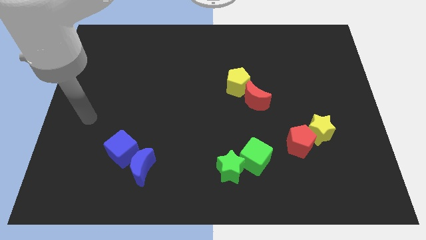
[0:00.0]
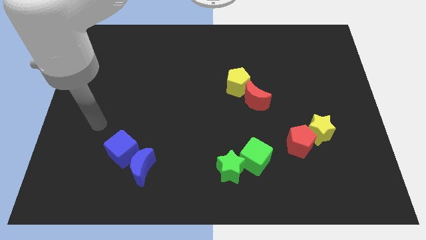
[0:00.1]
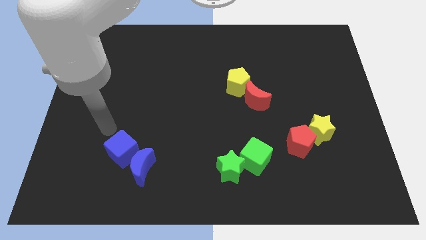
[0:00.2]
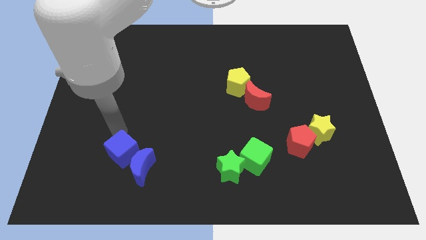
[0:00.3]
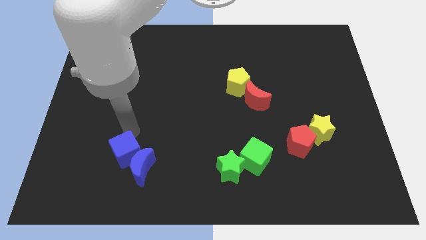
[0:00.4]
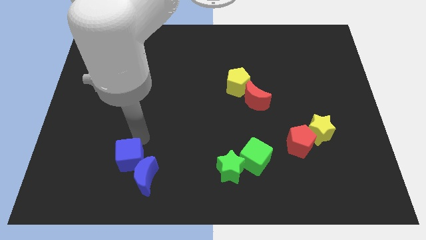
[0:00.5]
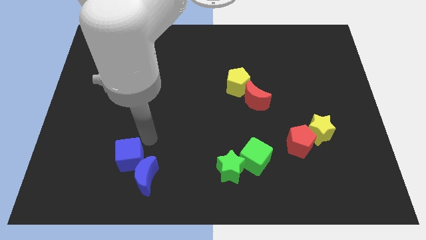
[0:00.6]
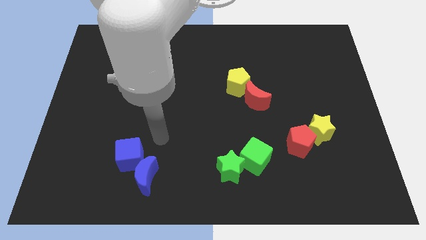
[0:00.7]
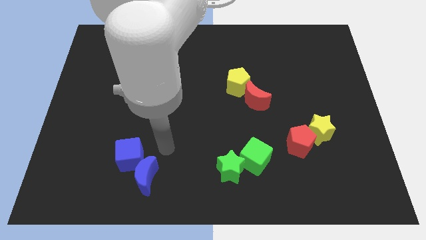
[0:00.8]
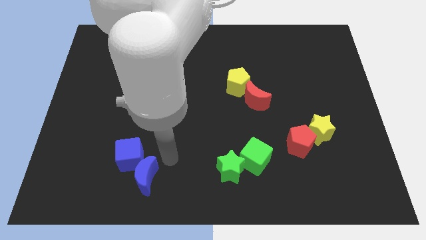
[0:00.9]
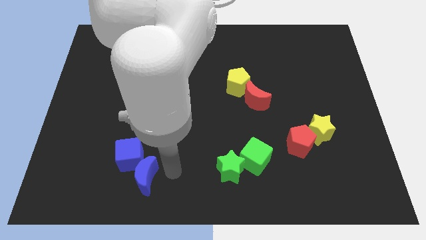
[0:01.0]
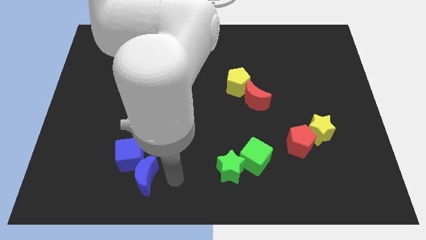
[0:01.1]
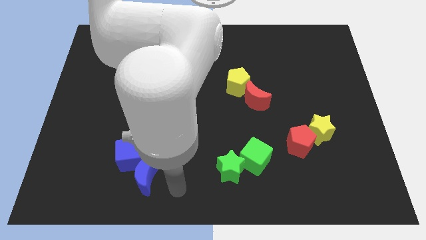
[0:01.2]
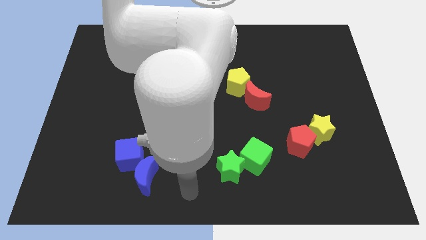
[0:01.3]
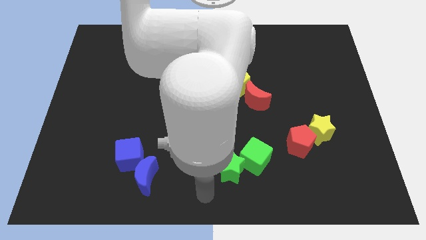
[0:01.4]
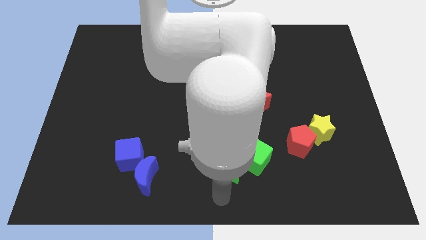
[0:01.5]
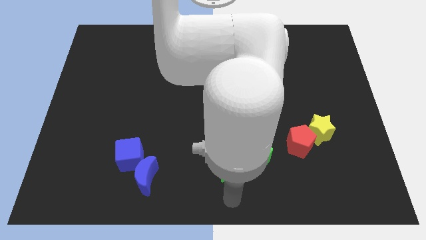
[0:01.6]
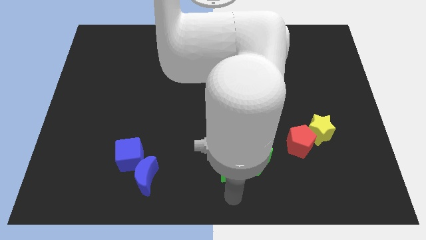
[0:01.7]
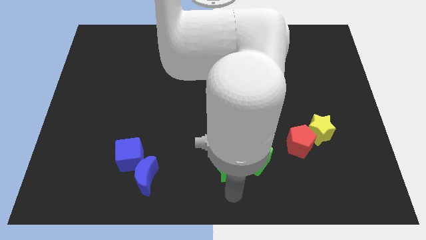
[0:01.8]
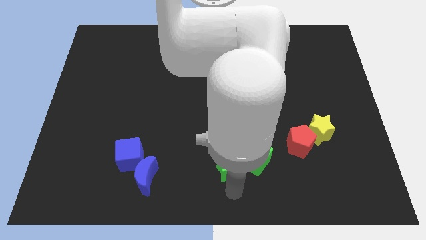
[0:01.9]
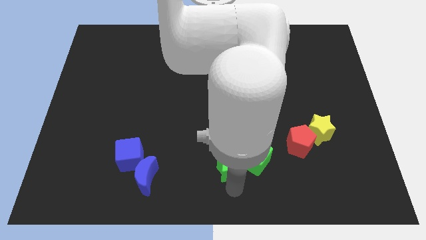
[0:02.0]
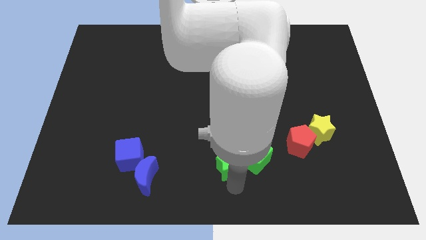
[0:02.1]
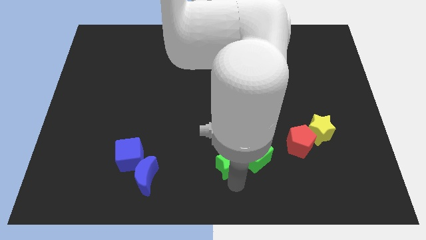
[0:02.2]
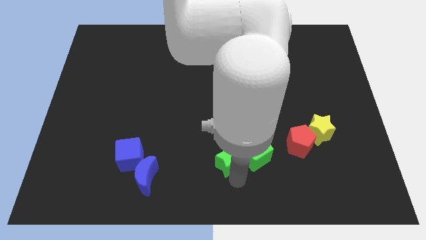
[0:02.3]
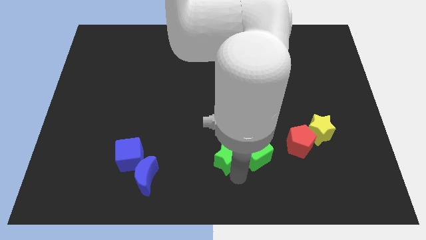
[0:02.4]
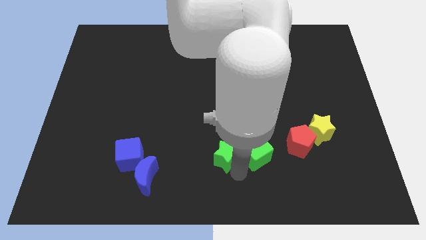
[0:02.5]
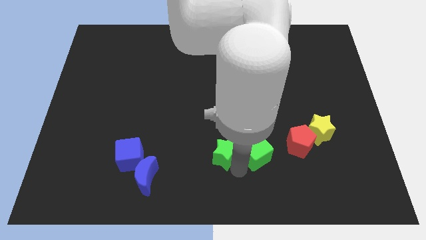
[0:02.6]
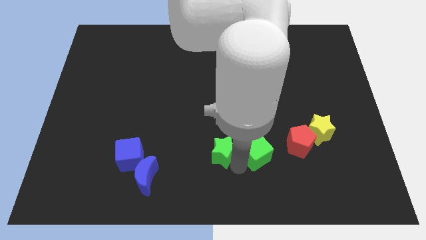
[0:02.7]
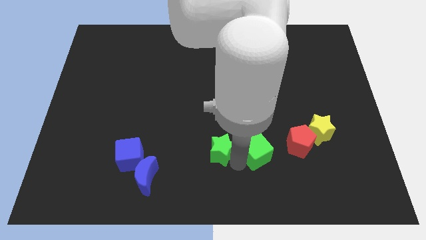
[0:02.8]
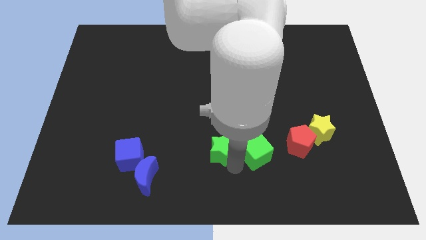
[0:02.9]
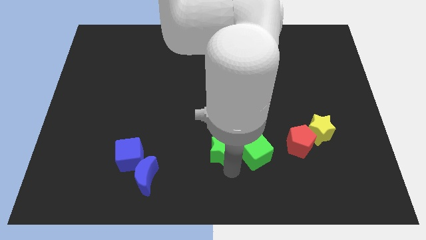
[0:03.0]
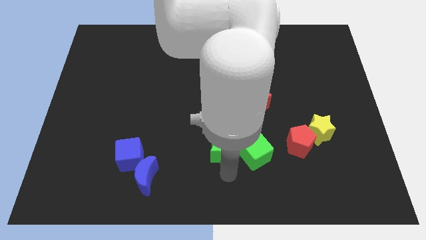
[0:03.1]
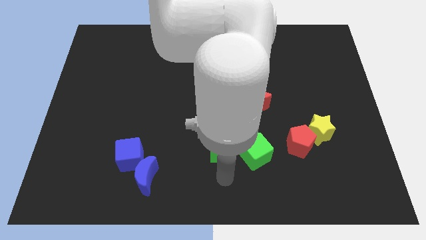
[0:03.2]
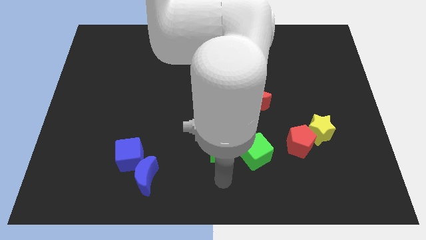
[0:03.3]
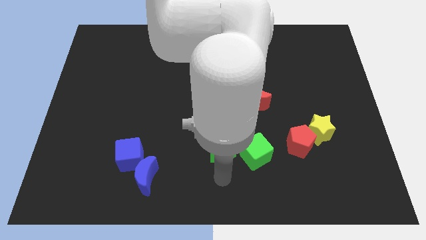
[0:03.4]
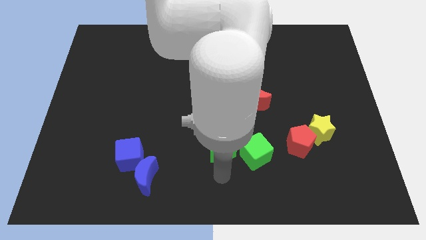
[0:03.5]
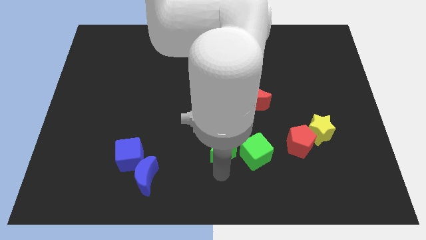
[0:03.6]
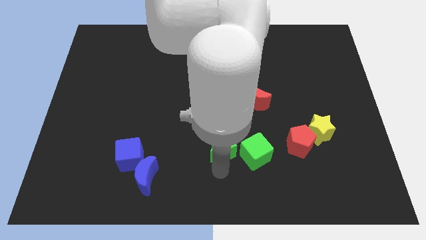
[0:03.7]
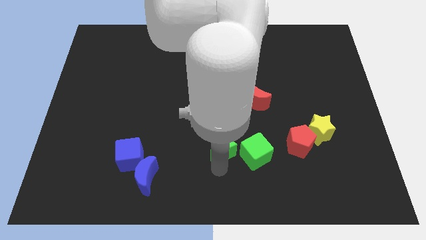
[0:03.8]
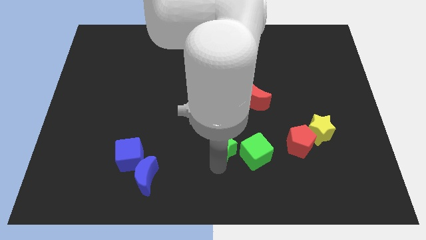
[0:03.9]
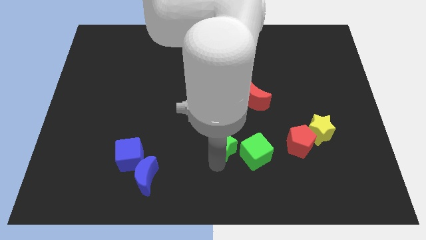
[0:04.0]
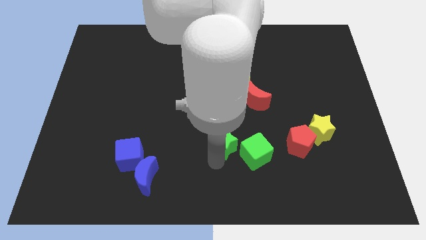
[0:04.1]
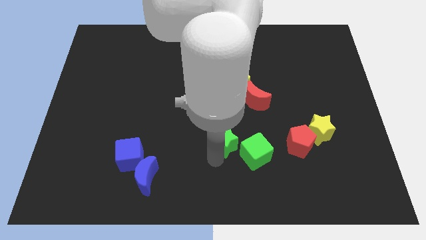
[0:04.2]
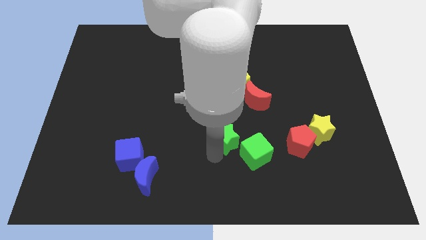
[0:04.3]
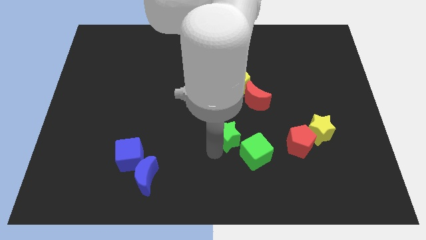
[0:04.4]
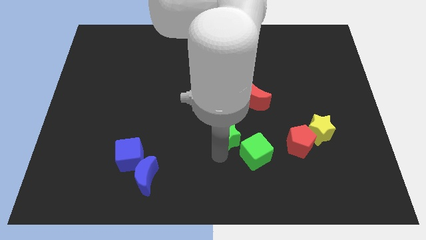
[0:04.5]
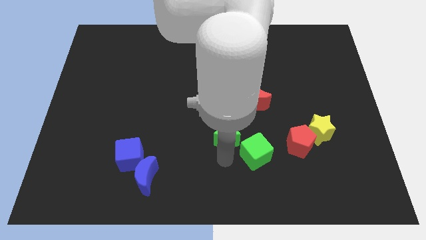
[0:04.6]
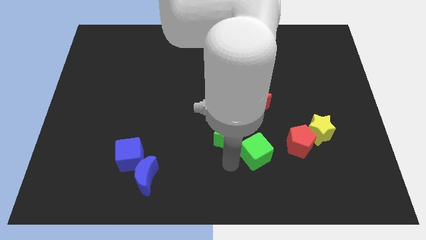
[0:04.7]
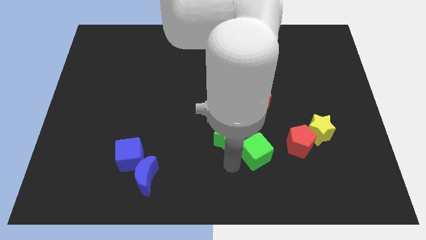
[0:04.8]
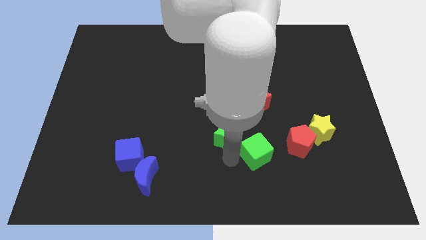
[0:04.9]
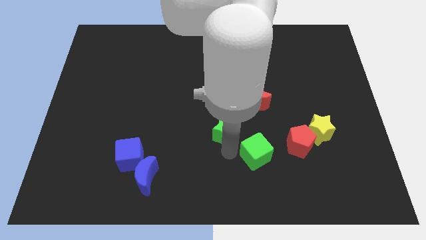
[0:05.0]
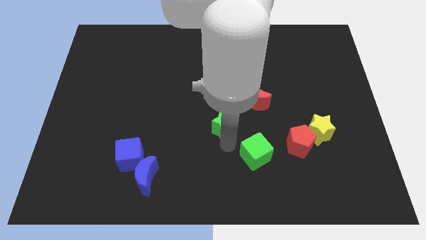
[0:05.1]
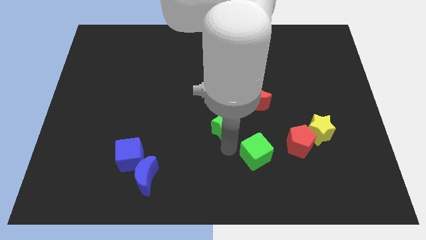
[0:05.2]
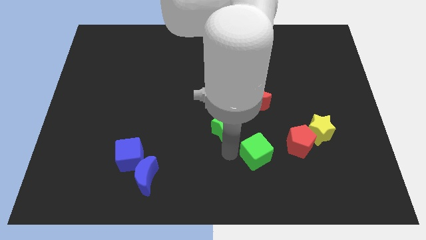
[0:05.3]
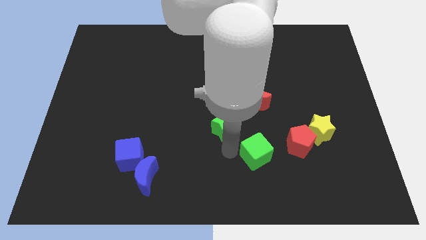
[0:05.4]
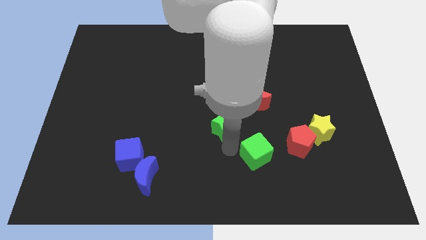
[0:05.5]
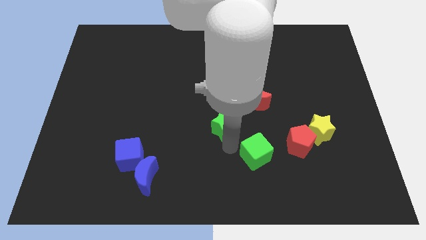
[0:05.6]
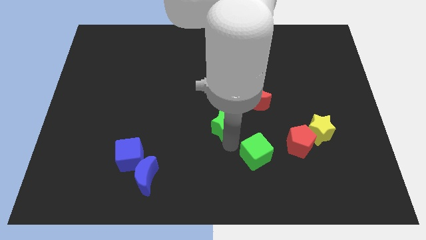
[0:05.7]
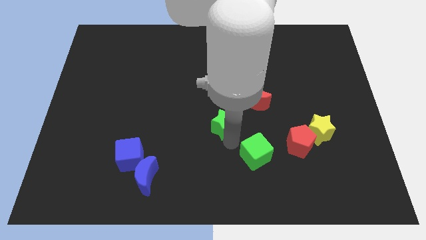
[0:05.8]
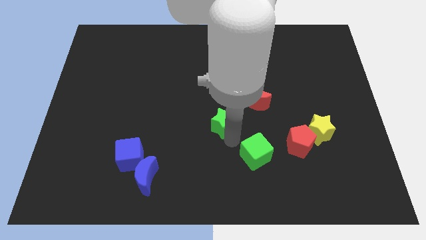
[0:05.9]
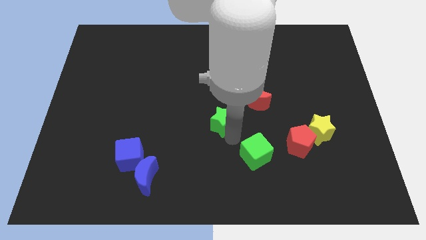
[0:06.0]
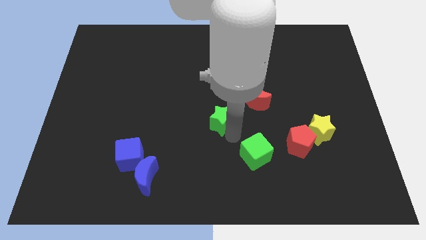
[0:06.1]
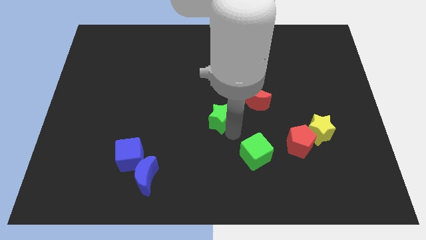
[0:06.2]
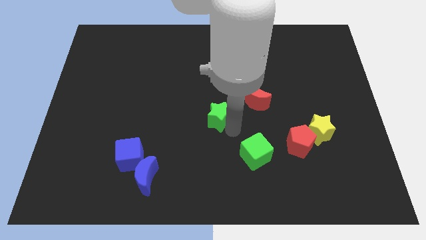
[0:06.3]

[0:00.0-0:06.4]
put the green star to the bottom left side of the yellow pentagon

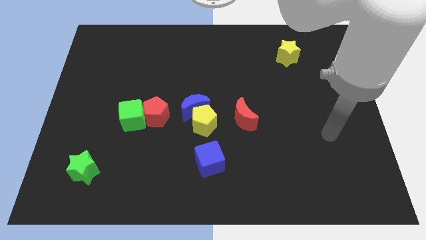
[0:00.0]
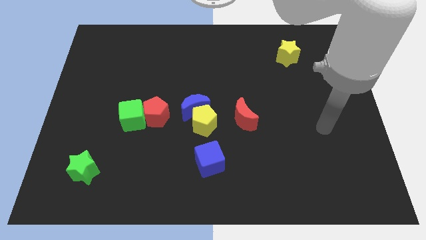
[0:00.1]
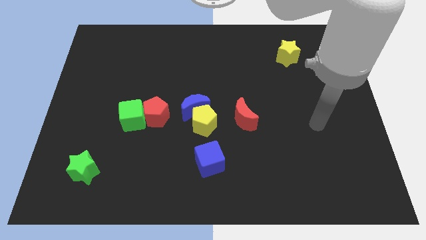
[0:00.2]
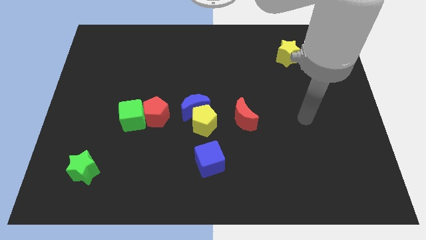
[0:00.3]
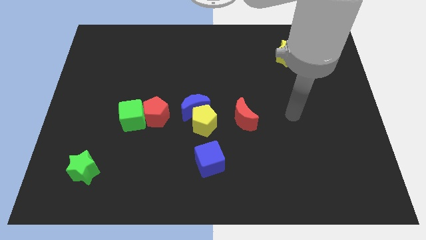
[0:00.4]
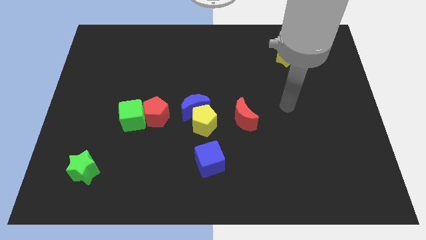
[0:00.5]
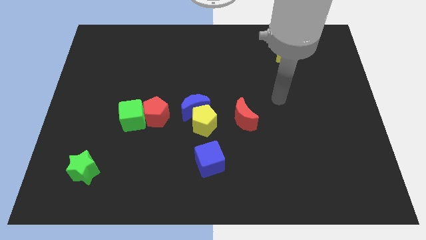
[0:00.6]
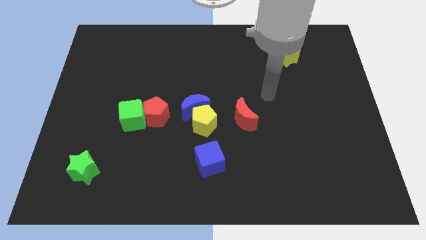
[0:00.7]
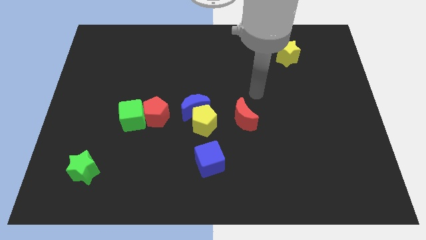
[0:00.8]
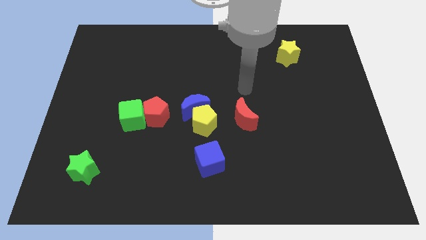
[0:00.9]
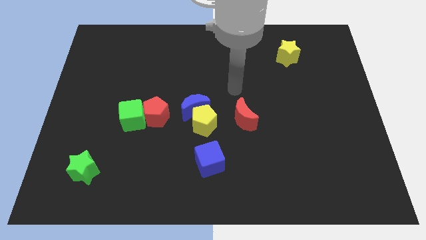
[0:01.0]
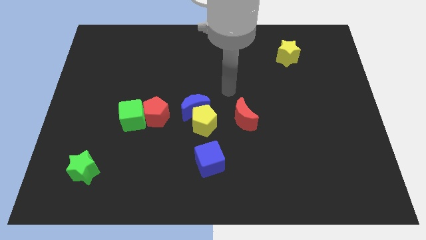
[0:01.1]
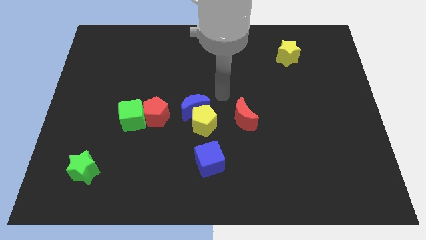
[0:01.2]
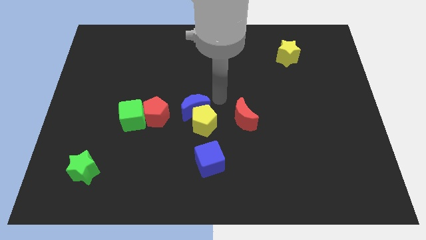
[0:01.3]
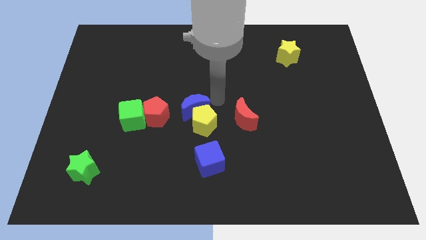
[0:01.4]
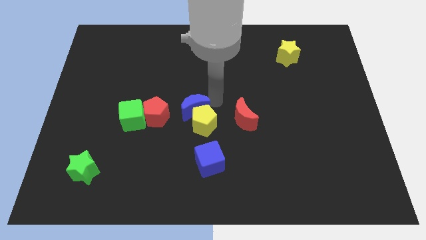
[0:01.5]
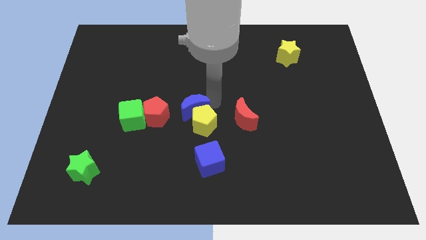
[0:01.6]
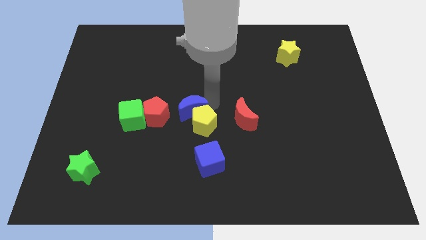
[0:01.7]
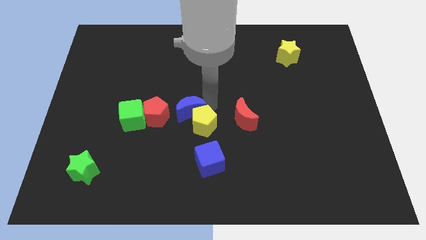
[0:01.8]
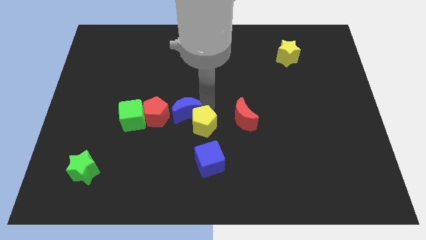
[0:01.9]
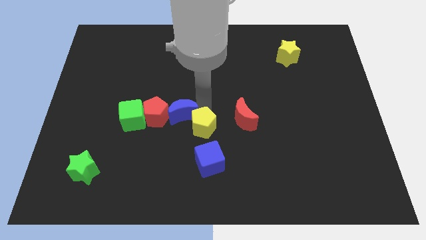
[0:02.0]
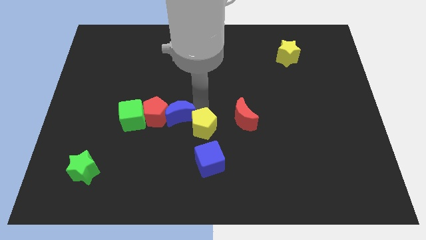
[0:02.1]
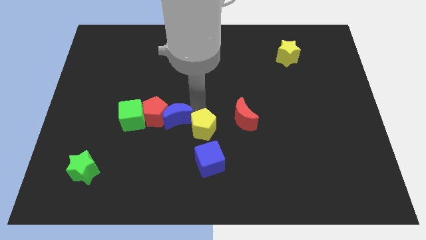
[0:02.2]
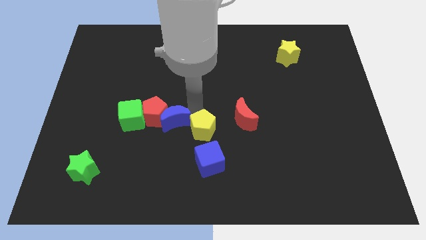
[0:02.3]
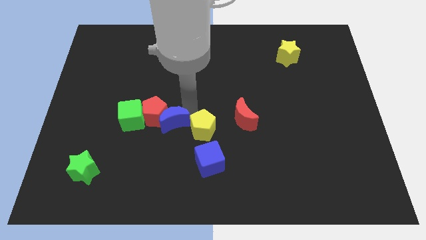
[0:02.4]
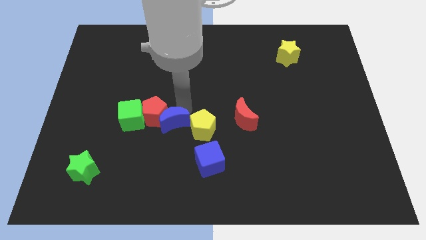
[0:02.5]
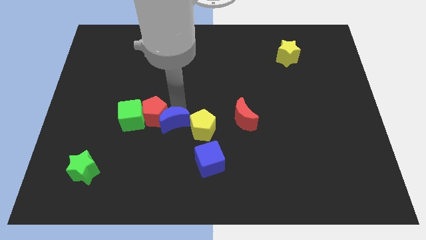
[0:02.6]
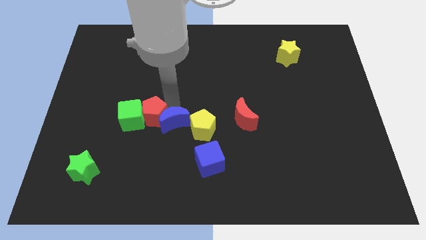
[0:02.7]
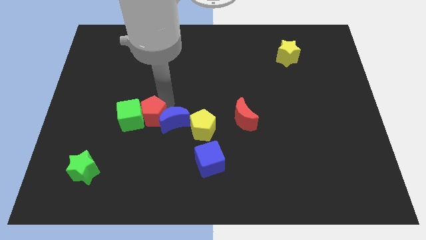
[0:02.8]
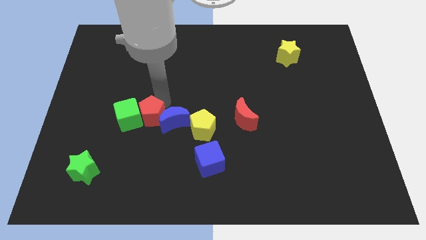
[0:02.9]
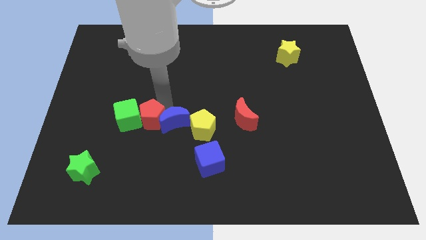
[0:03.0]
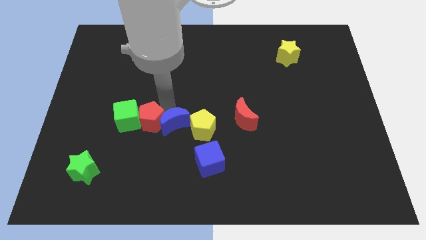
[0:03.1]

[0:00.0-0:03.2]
put the blue moon to the top left side of the blue cube
